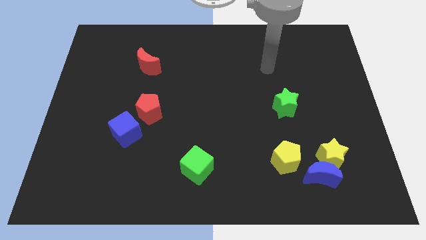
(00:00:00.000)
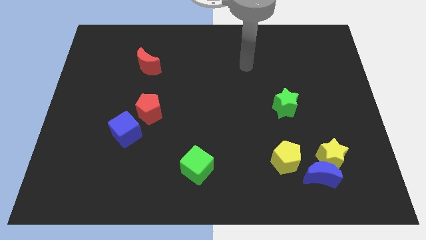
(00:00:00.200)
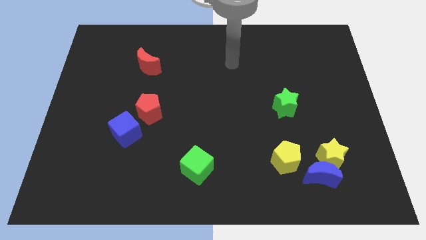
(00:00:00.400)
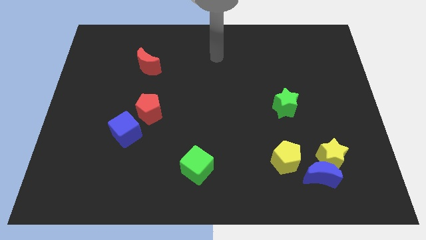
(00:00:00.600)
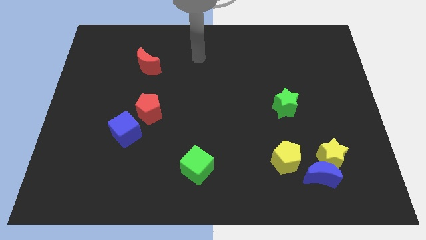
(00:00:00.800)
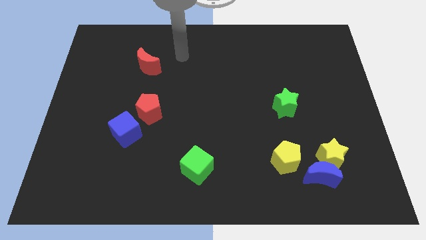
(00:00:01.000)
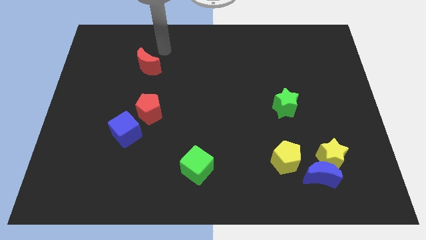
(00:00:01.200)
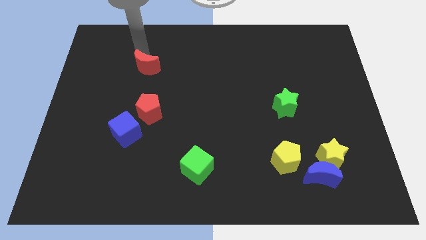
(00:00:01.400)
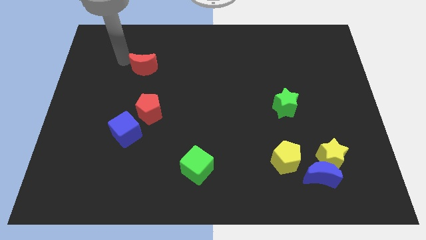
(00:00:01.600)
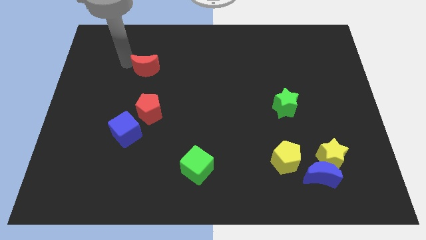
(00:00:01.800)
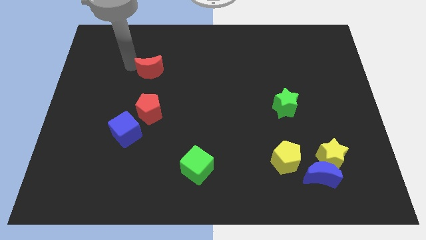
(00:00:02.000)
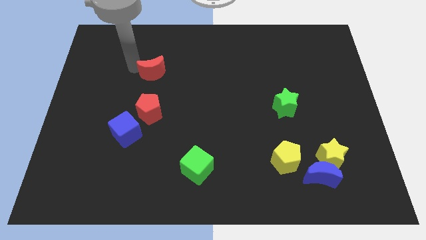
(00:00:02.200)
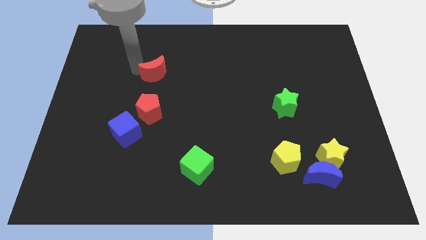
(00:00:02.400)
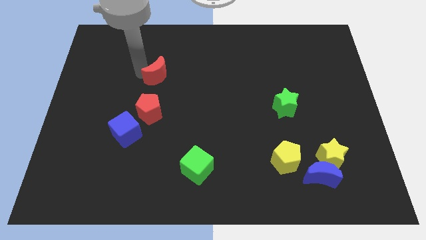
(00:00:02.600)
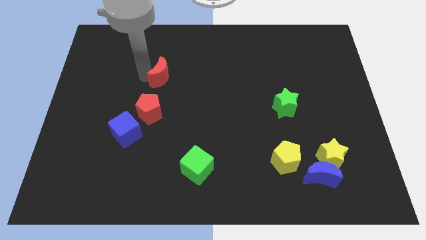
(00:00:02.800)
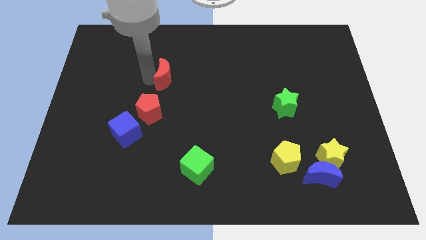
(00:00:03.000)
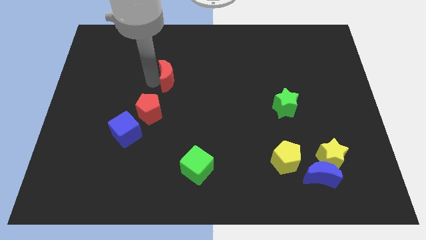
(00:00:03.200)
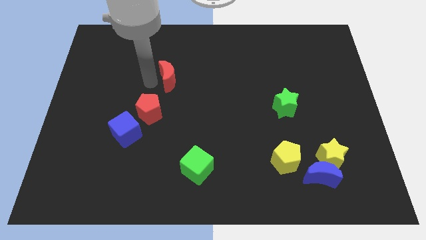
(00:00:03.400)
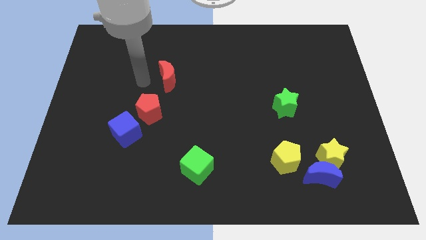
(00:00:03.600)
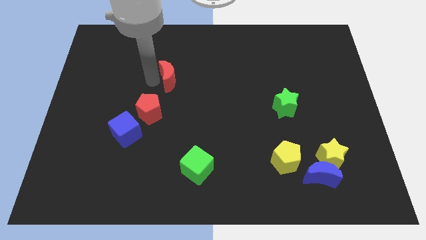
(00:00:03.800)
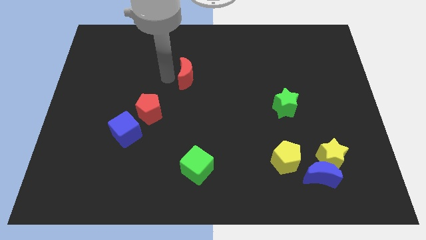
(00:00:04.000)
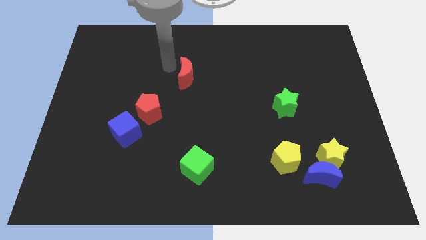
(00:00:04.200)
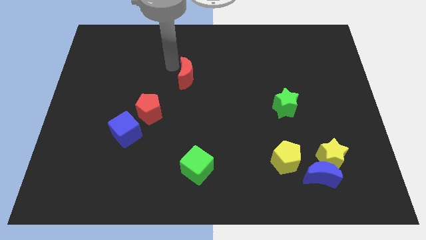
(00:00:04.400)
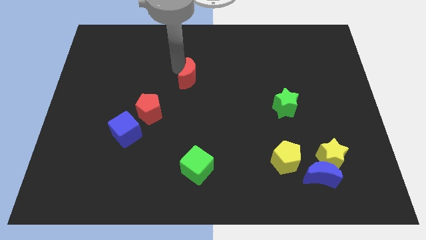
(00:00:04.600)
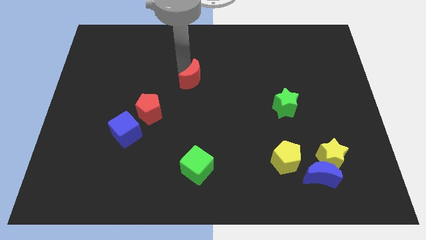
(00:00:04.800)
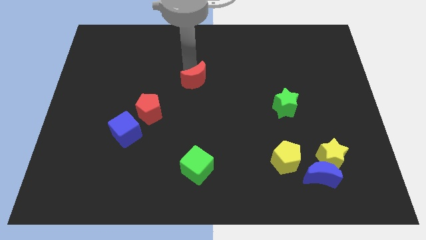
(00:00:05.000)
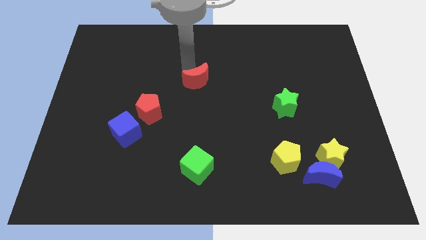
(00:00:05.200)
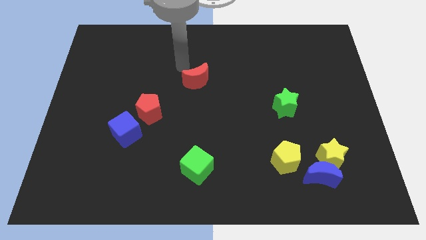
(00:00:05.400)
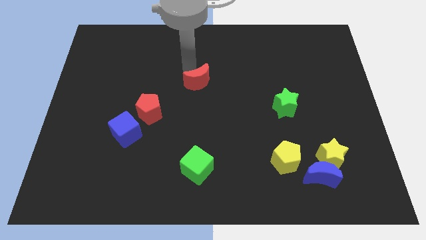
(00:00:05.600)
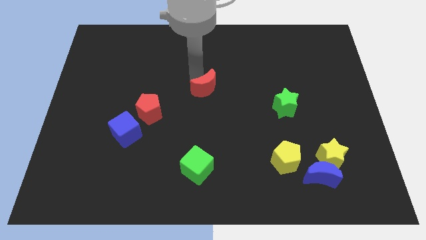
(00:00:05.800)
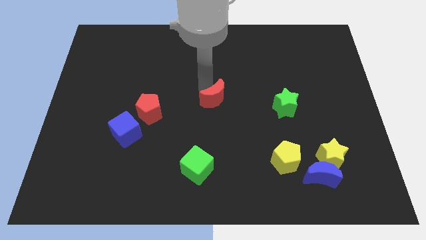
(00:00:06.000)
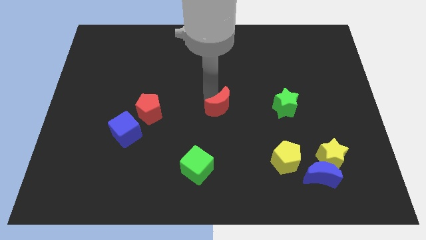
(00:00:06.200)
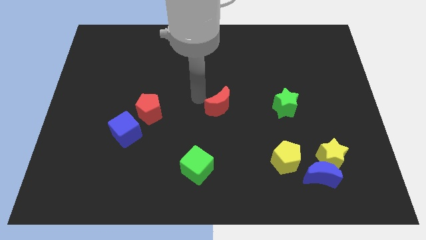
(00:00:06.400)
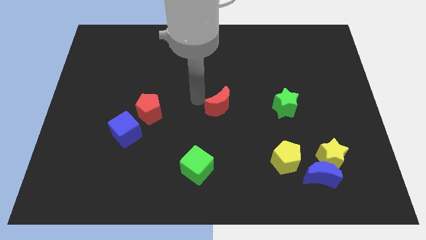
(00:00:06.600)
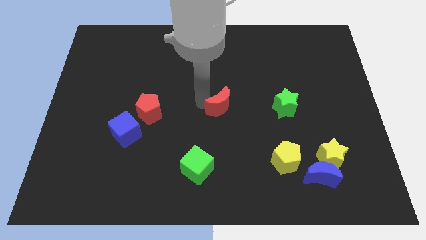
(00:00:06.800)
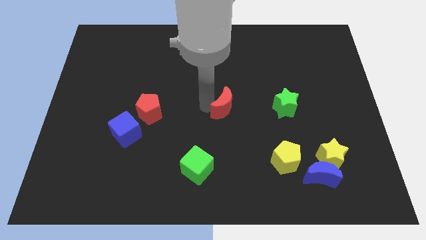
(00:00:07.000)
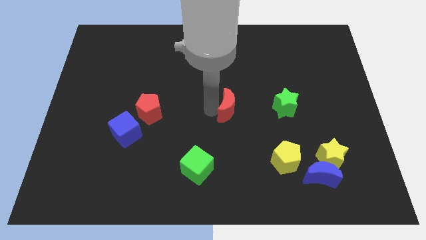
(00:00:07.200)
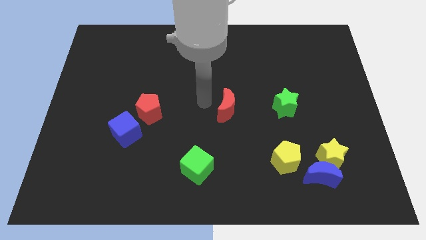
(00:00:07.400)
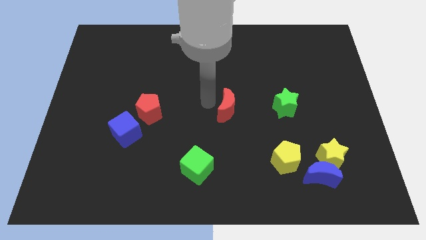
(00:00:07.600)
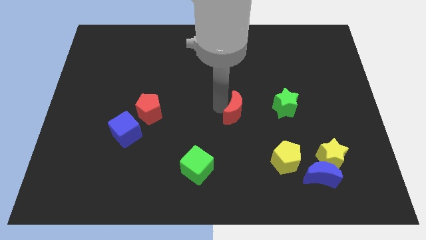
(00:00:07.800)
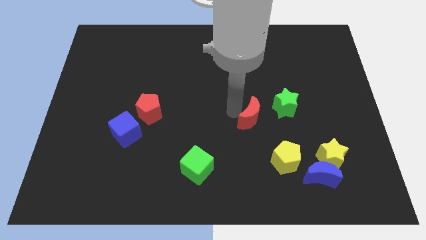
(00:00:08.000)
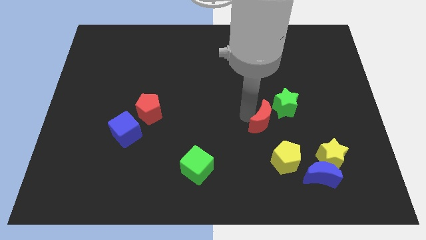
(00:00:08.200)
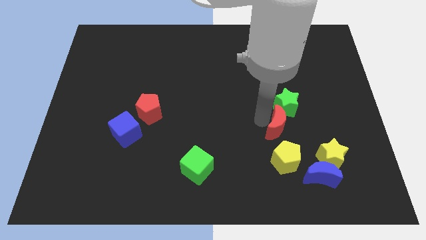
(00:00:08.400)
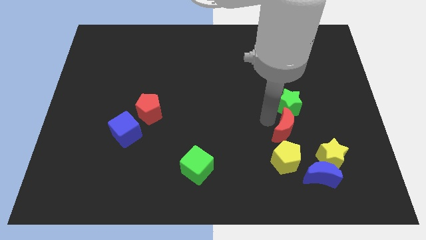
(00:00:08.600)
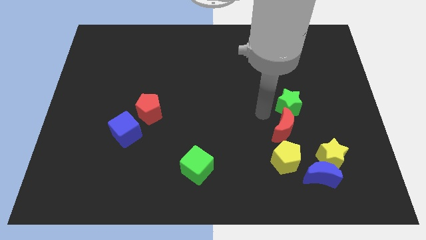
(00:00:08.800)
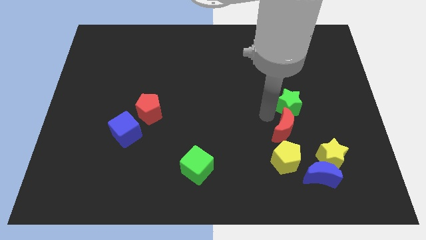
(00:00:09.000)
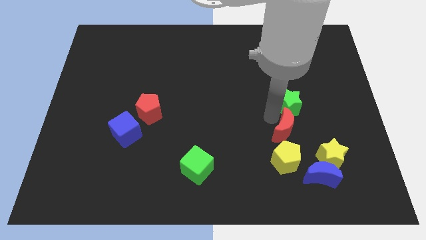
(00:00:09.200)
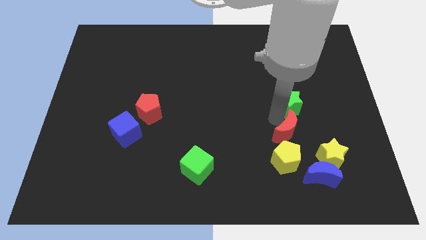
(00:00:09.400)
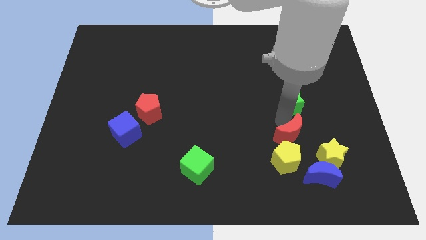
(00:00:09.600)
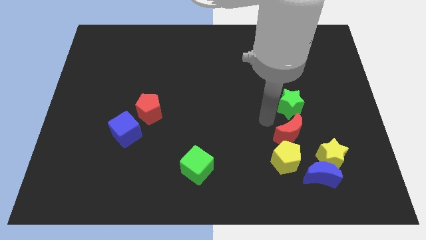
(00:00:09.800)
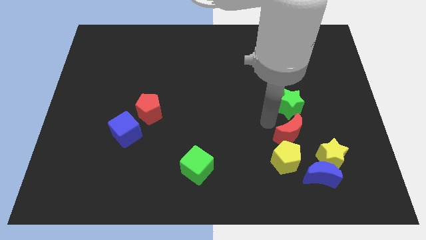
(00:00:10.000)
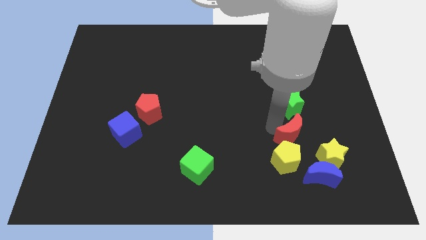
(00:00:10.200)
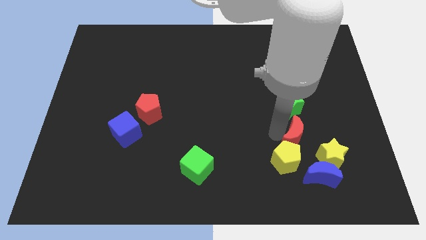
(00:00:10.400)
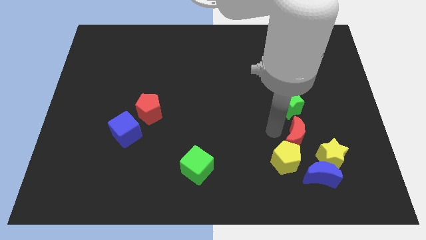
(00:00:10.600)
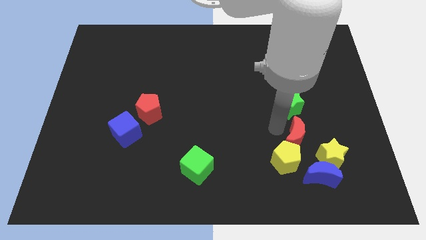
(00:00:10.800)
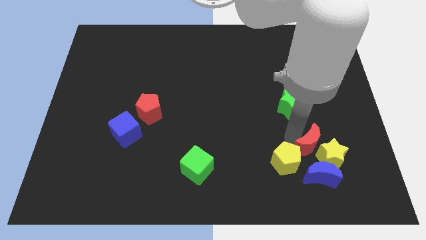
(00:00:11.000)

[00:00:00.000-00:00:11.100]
move the red moon close to the yellow star

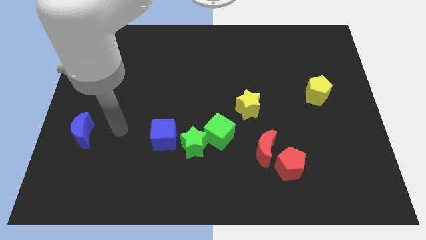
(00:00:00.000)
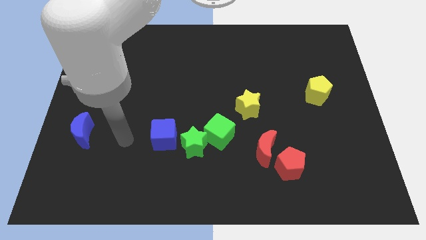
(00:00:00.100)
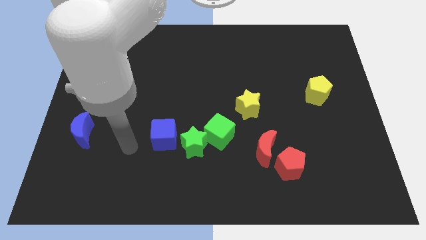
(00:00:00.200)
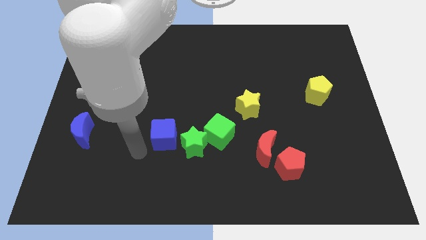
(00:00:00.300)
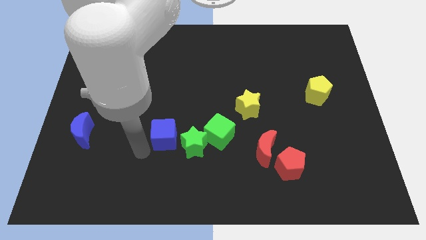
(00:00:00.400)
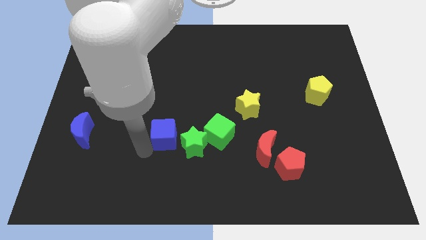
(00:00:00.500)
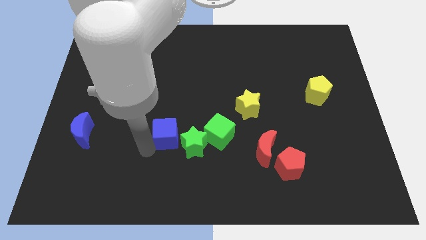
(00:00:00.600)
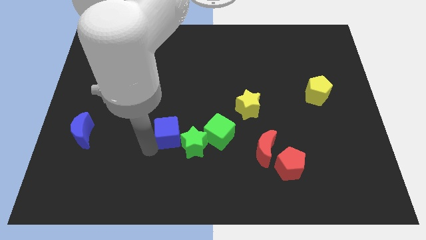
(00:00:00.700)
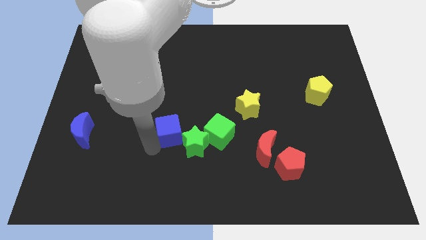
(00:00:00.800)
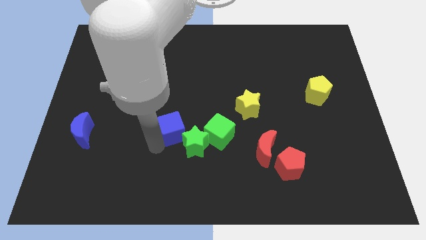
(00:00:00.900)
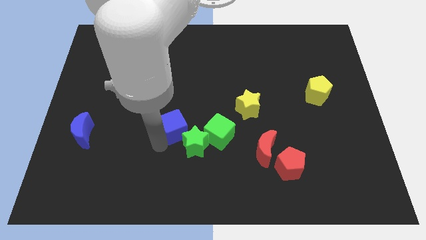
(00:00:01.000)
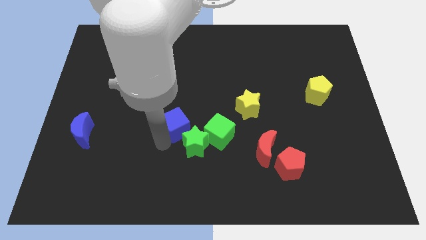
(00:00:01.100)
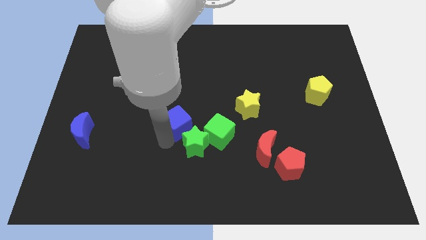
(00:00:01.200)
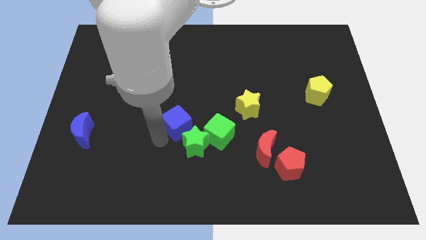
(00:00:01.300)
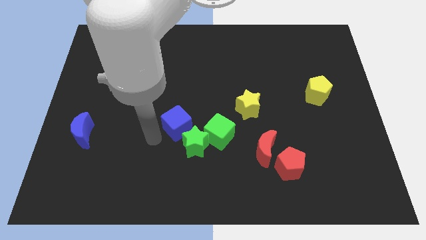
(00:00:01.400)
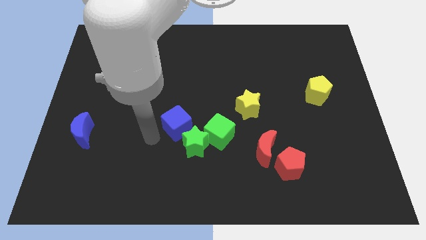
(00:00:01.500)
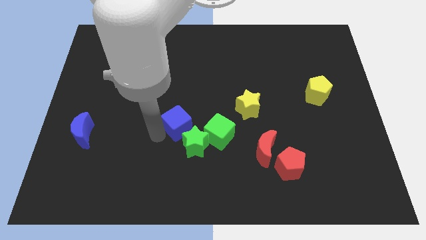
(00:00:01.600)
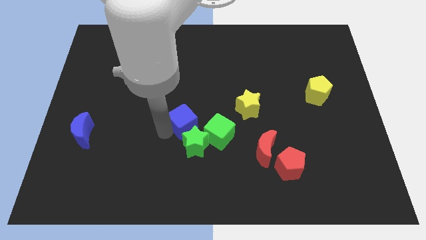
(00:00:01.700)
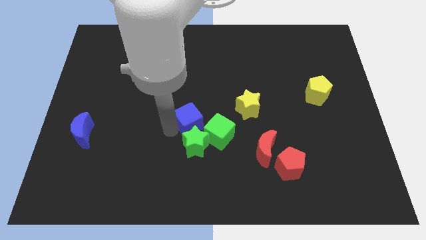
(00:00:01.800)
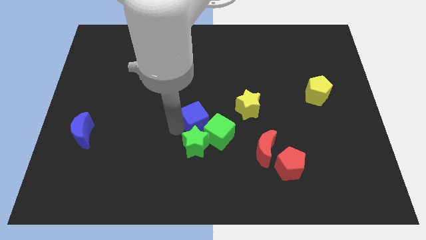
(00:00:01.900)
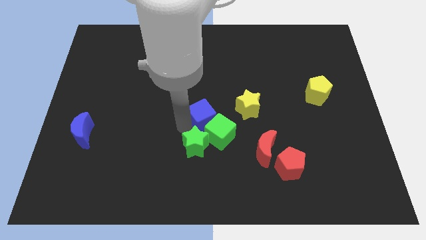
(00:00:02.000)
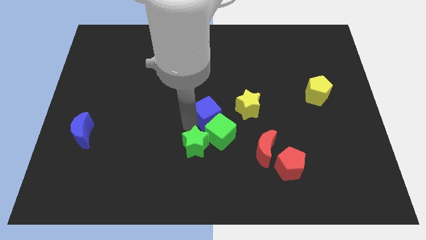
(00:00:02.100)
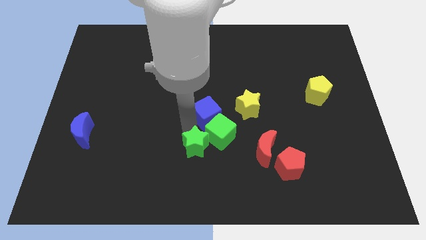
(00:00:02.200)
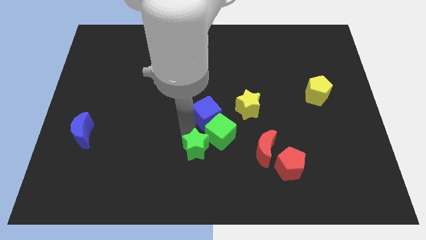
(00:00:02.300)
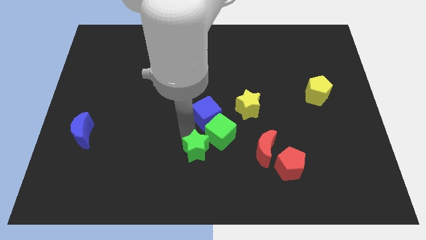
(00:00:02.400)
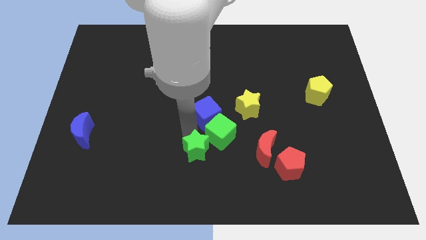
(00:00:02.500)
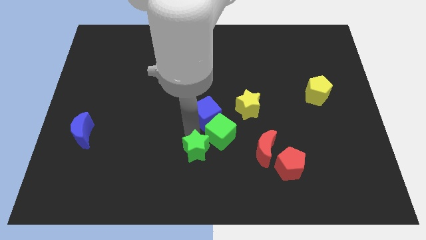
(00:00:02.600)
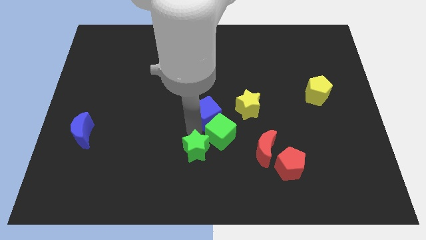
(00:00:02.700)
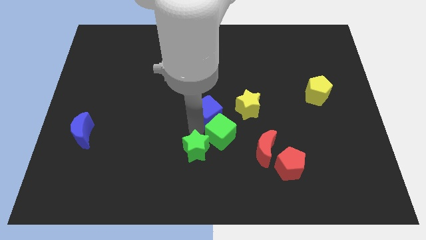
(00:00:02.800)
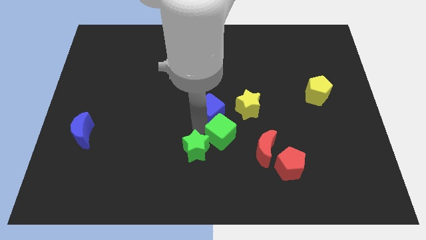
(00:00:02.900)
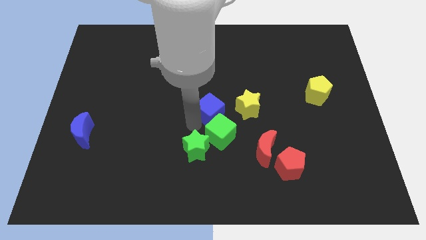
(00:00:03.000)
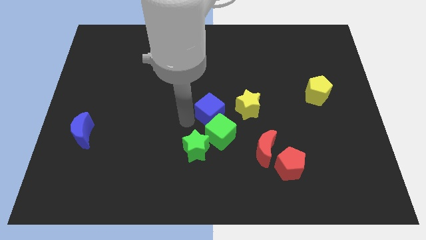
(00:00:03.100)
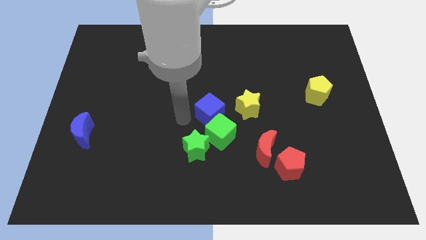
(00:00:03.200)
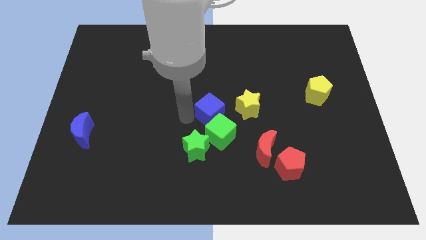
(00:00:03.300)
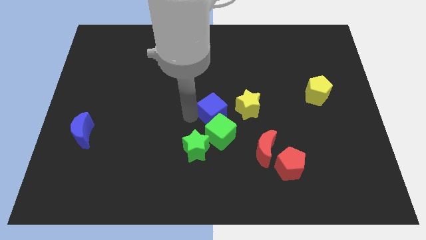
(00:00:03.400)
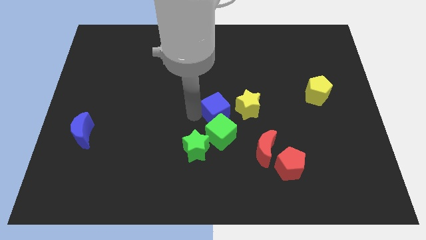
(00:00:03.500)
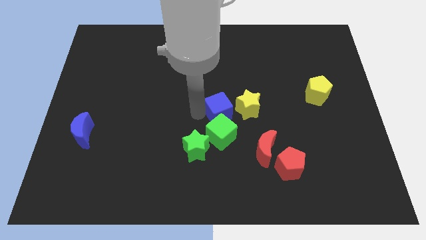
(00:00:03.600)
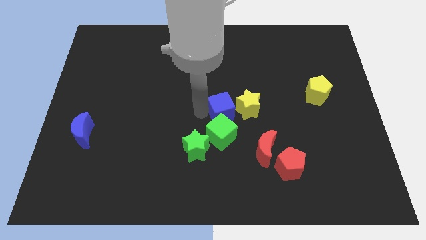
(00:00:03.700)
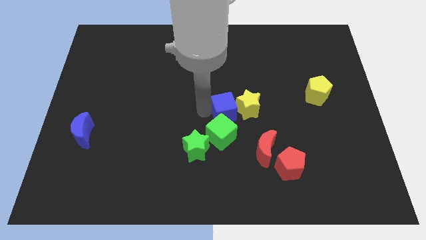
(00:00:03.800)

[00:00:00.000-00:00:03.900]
put the blue cube close to the yellow star
